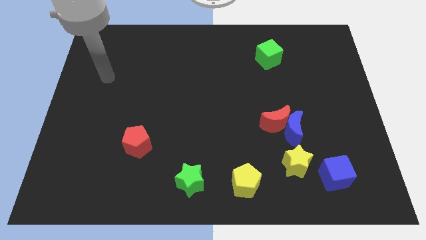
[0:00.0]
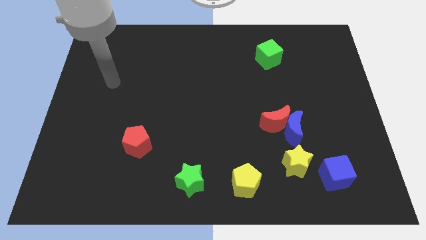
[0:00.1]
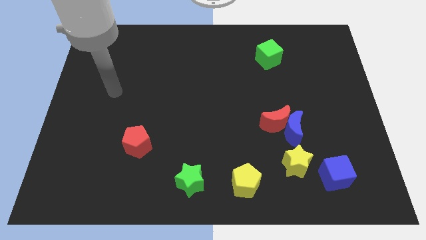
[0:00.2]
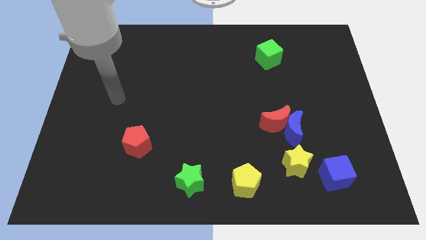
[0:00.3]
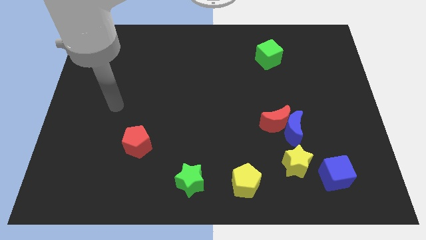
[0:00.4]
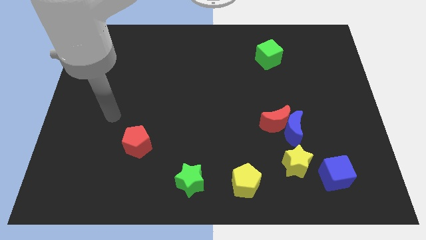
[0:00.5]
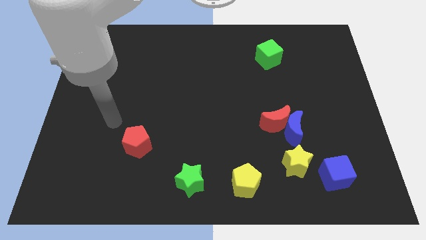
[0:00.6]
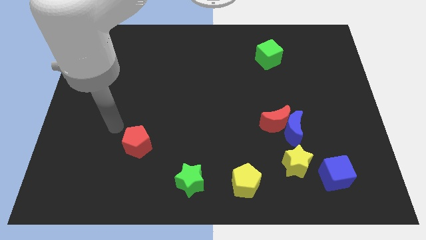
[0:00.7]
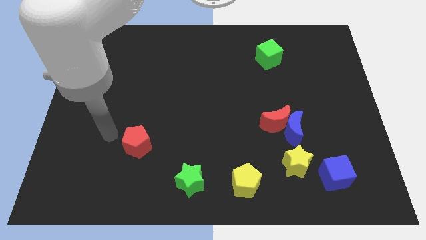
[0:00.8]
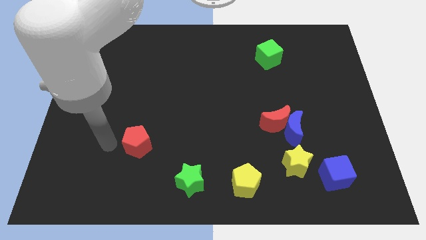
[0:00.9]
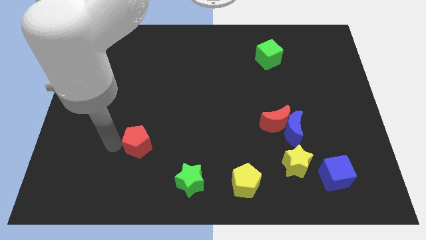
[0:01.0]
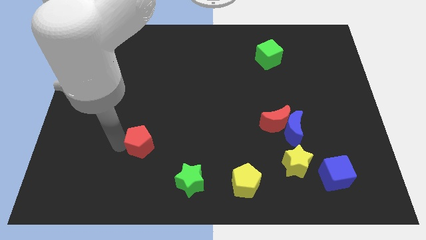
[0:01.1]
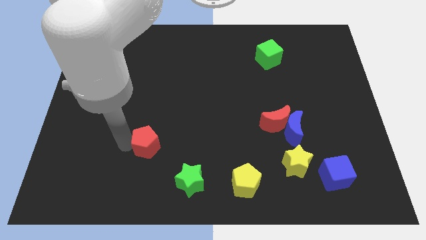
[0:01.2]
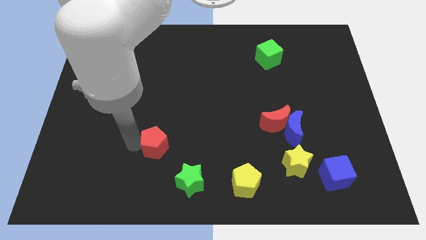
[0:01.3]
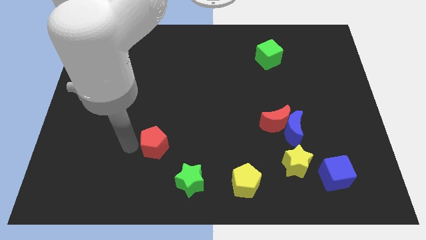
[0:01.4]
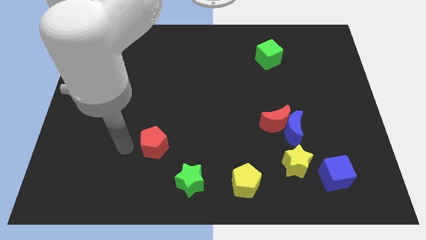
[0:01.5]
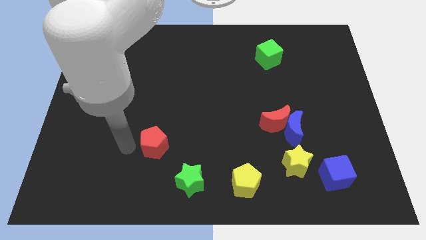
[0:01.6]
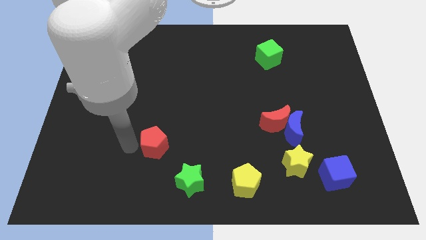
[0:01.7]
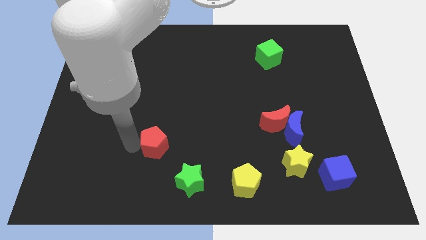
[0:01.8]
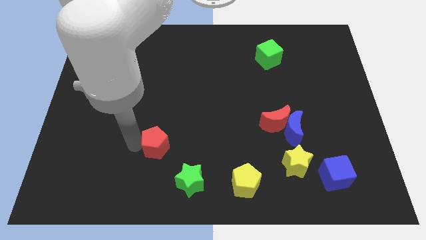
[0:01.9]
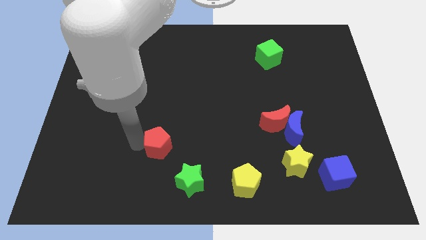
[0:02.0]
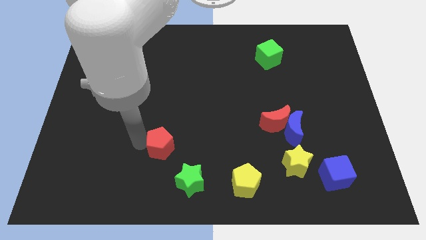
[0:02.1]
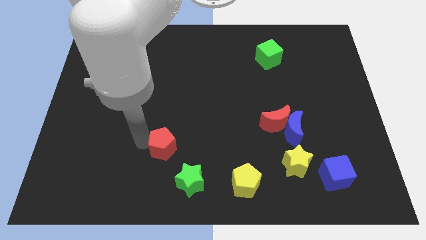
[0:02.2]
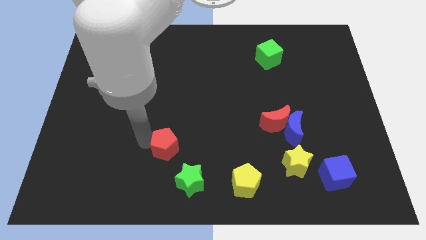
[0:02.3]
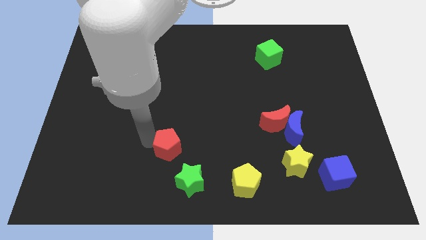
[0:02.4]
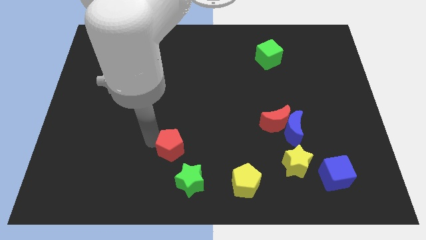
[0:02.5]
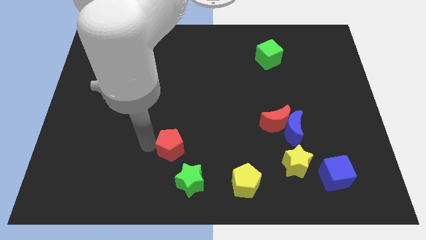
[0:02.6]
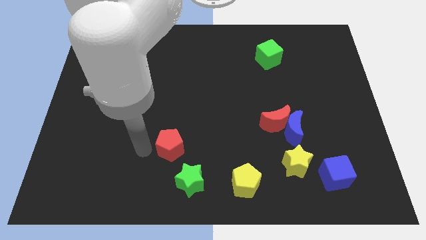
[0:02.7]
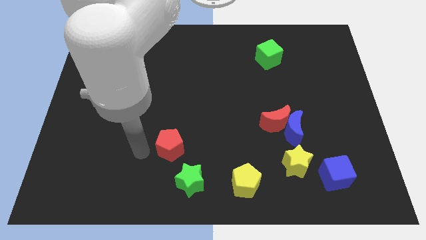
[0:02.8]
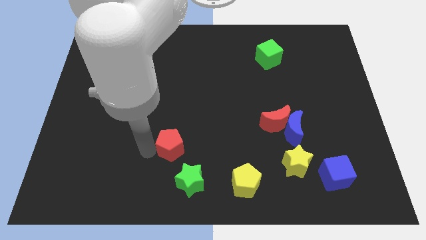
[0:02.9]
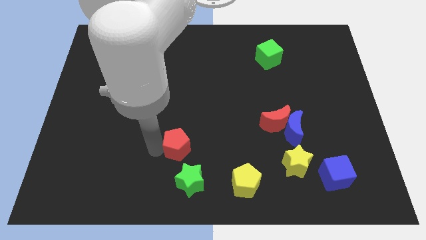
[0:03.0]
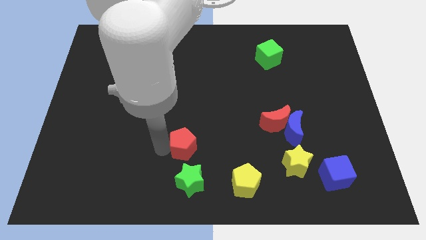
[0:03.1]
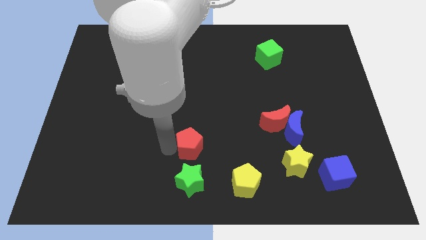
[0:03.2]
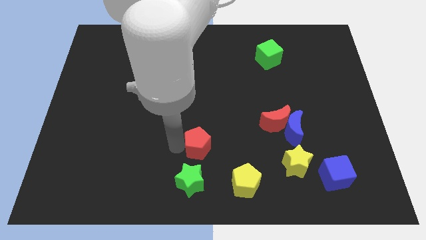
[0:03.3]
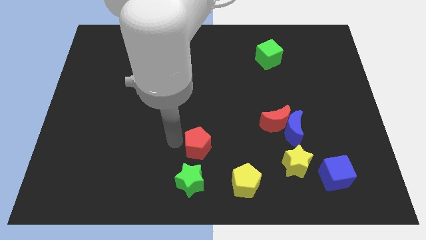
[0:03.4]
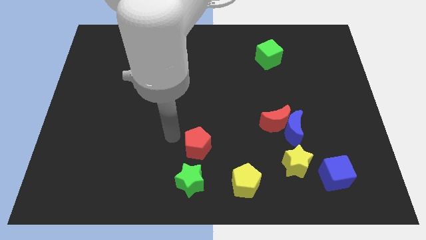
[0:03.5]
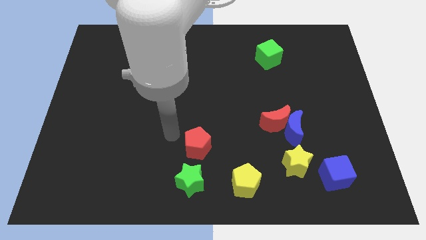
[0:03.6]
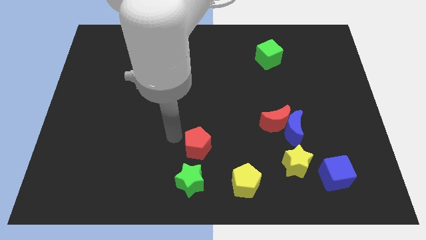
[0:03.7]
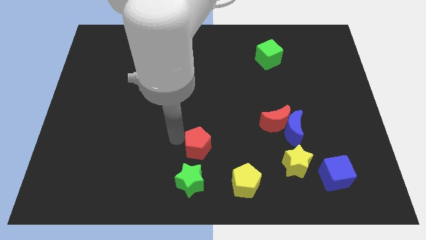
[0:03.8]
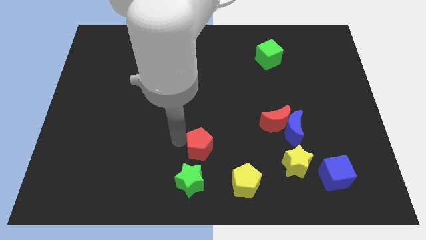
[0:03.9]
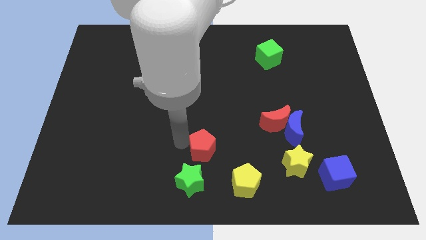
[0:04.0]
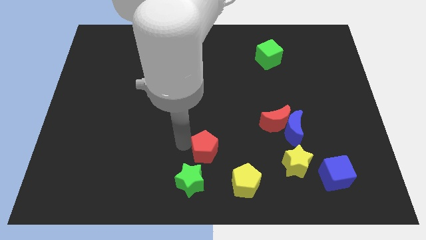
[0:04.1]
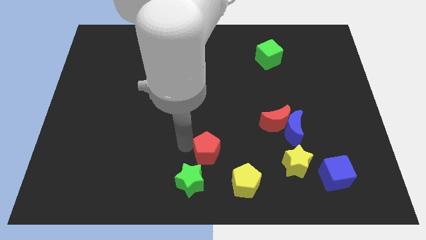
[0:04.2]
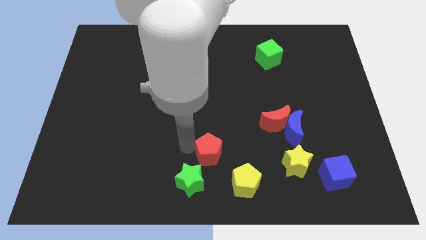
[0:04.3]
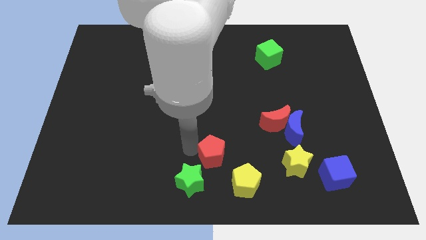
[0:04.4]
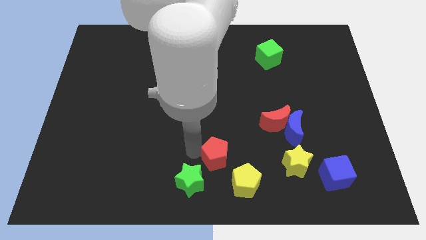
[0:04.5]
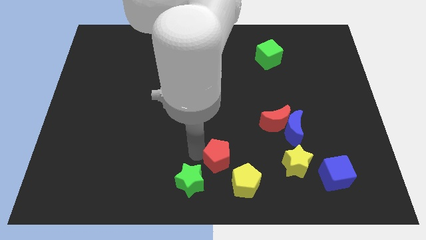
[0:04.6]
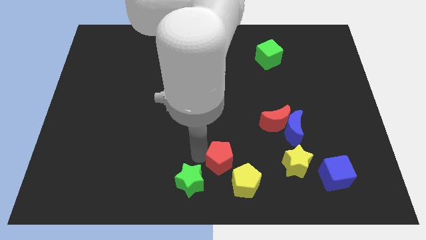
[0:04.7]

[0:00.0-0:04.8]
slide the red pentagon to the left side of the yellow star

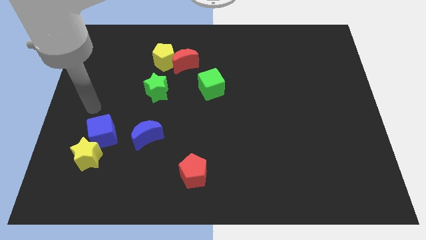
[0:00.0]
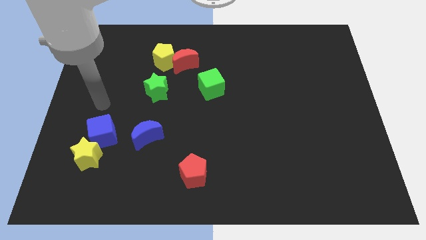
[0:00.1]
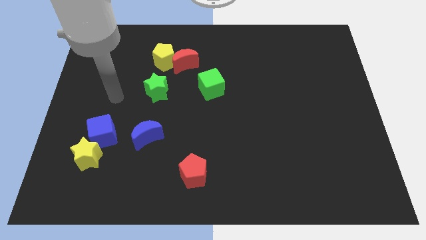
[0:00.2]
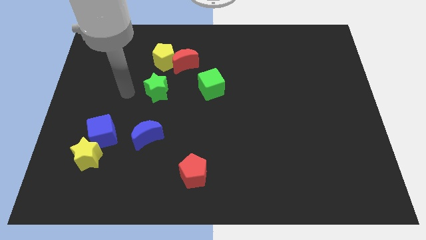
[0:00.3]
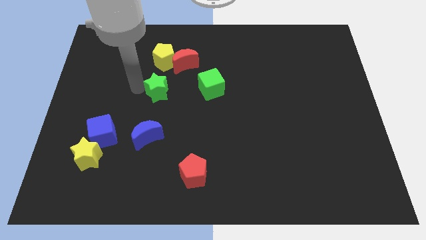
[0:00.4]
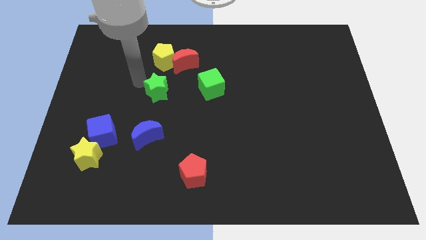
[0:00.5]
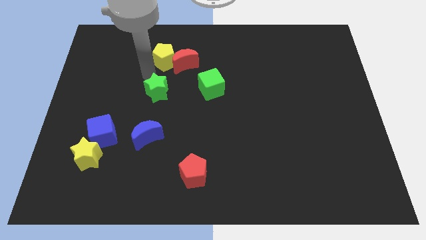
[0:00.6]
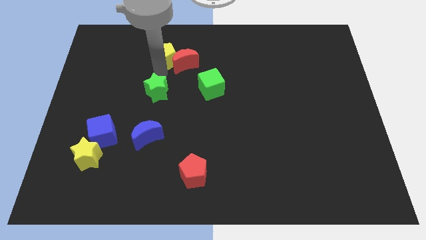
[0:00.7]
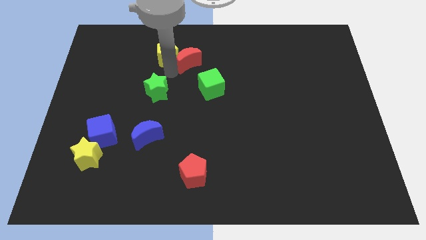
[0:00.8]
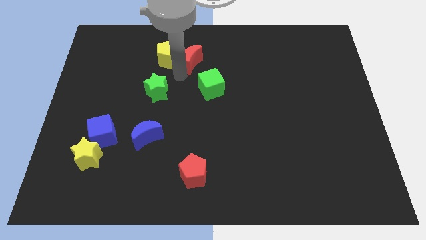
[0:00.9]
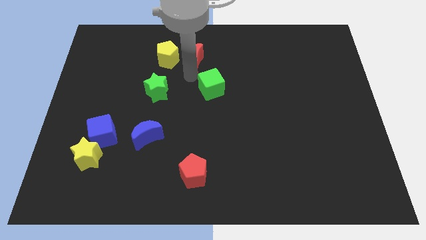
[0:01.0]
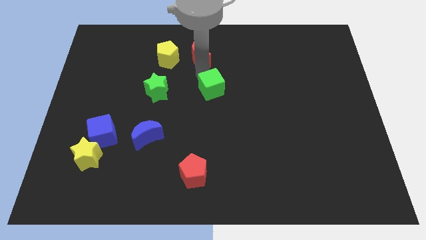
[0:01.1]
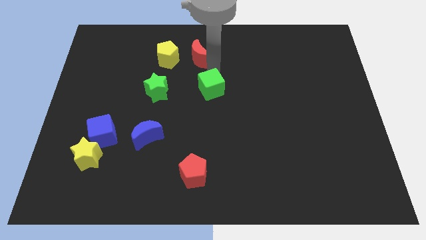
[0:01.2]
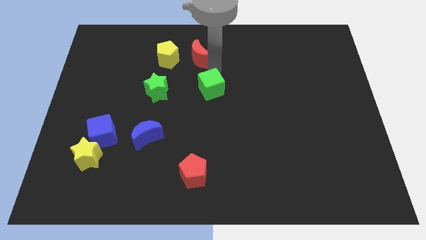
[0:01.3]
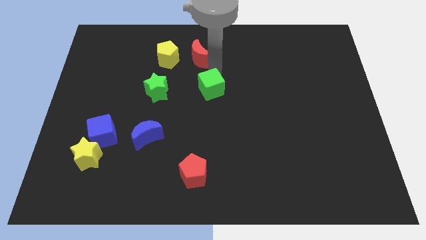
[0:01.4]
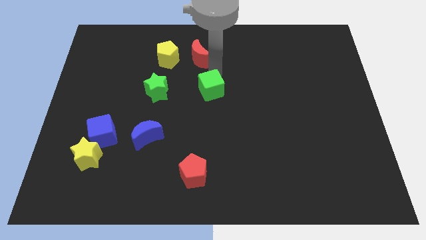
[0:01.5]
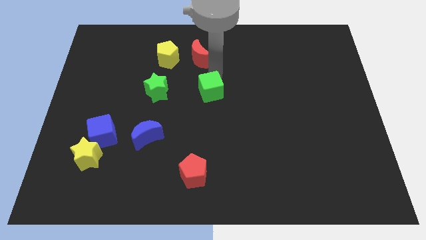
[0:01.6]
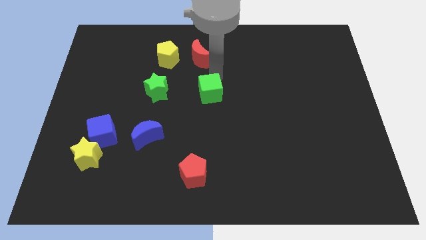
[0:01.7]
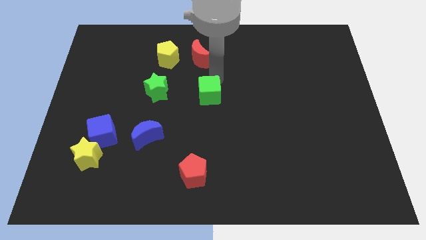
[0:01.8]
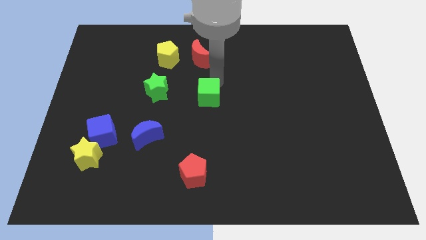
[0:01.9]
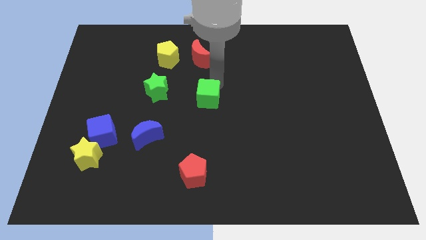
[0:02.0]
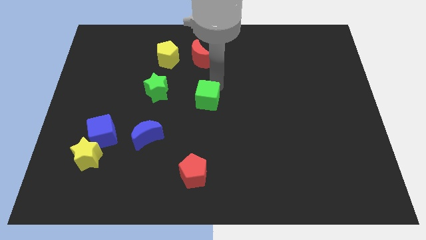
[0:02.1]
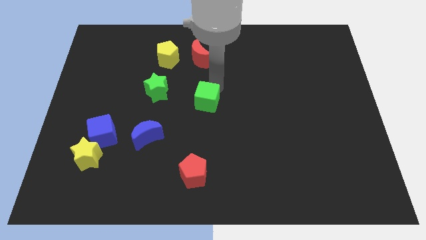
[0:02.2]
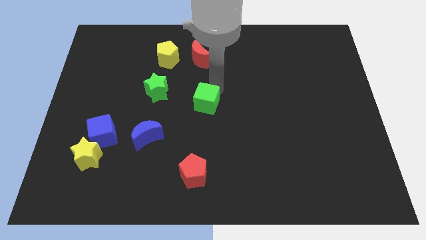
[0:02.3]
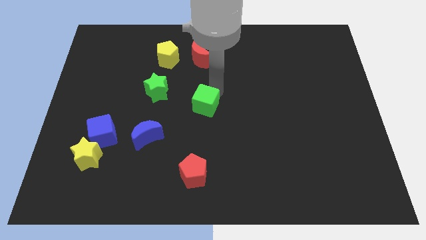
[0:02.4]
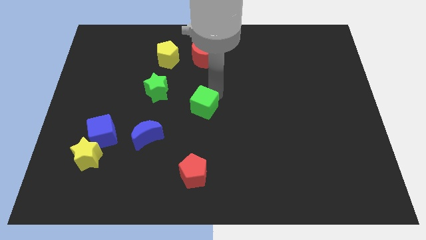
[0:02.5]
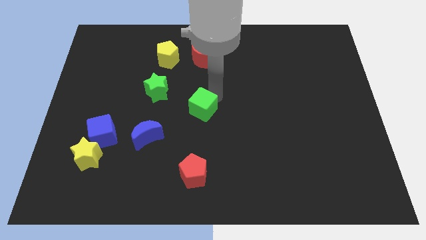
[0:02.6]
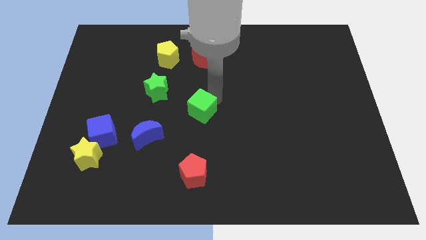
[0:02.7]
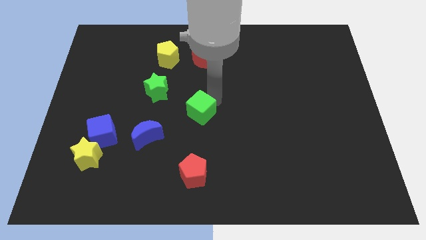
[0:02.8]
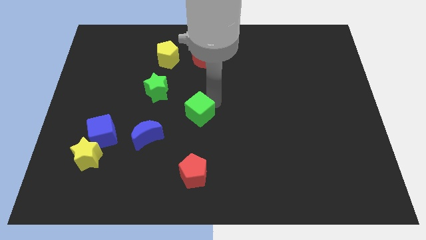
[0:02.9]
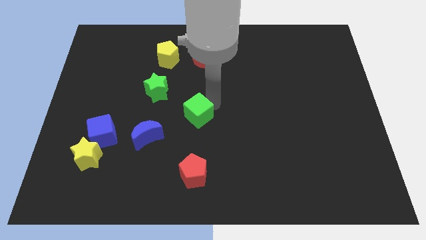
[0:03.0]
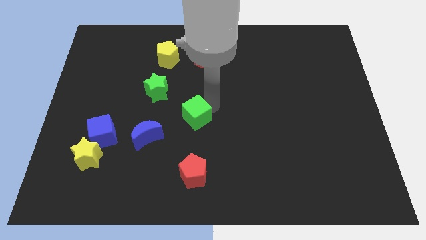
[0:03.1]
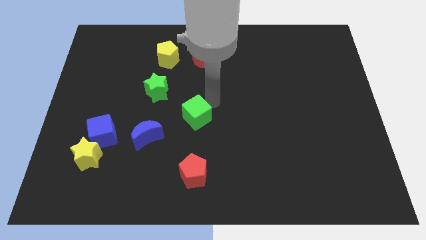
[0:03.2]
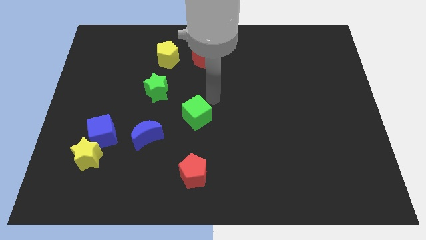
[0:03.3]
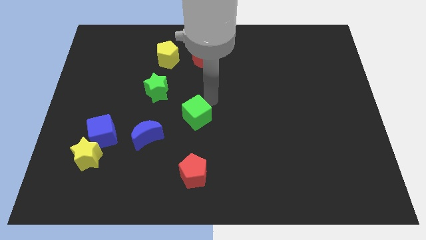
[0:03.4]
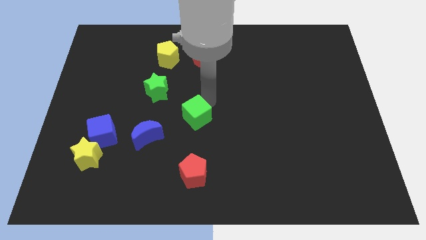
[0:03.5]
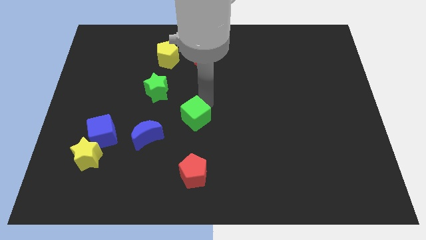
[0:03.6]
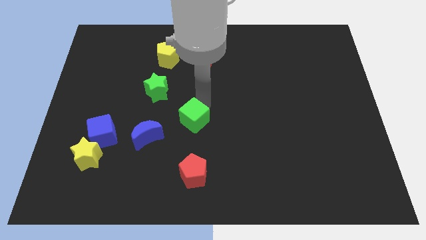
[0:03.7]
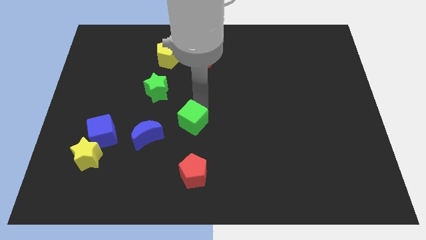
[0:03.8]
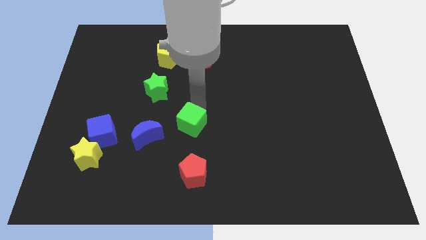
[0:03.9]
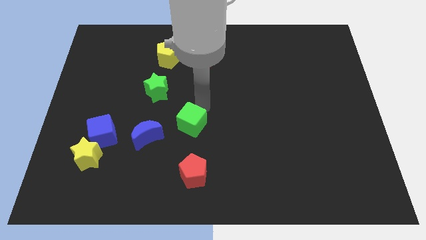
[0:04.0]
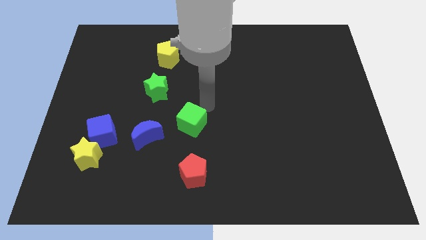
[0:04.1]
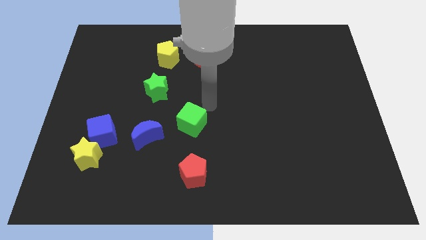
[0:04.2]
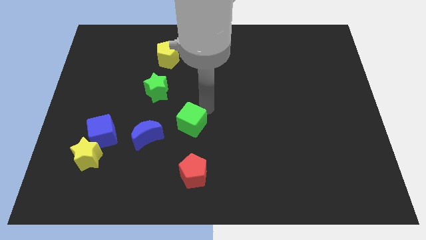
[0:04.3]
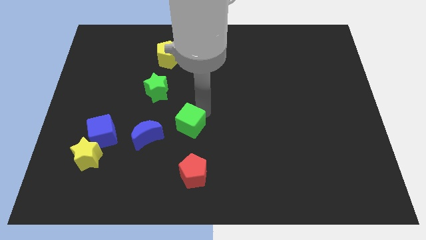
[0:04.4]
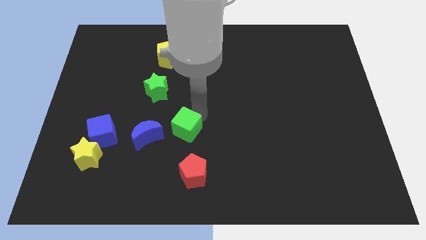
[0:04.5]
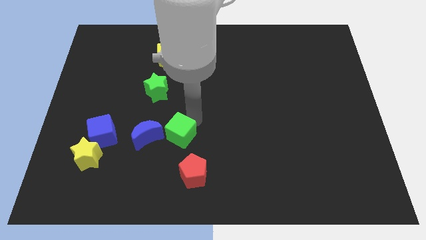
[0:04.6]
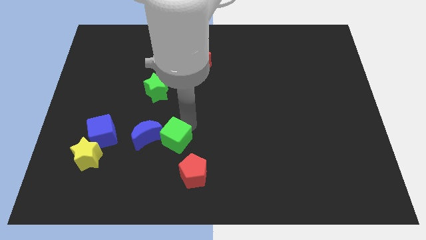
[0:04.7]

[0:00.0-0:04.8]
slide the green cube to the top left side of the red pentagon
